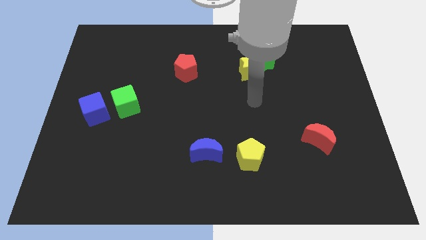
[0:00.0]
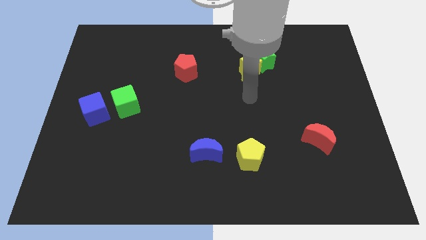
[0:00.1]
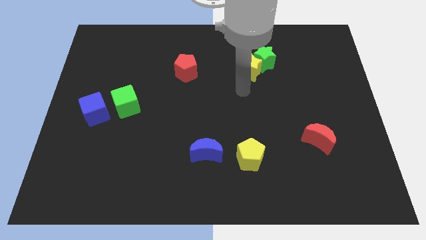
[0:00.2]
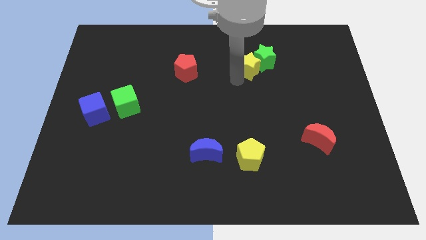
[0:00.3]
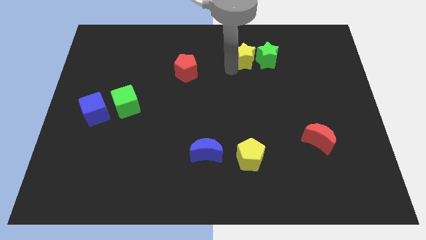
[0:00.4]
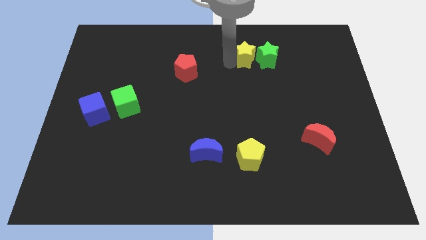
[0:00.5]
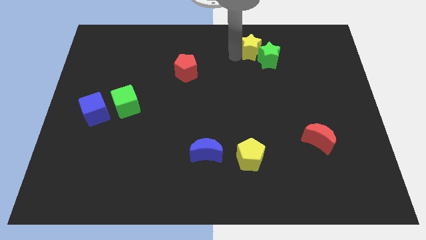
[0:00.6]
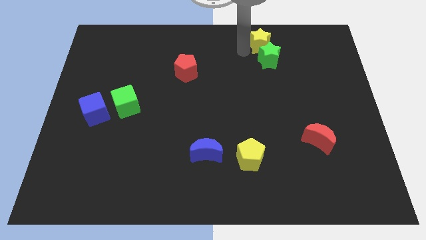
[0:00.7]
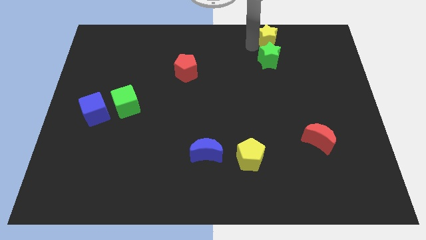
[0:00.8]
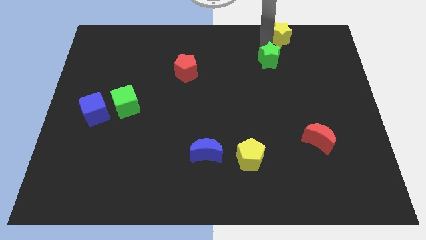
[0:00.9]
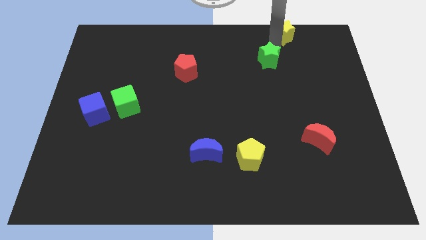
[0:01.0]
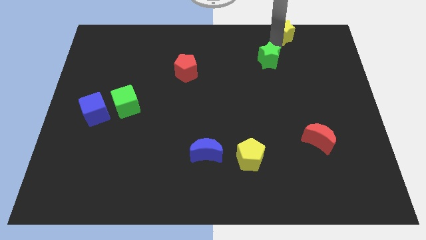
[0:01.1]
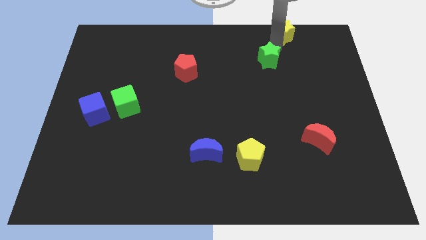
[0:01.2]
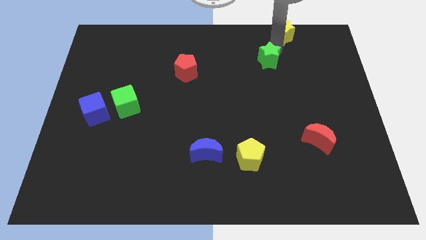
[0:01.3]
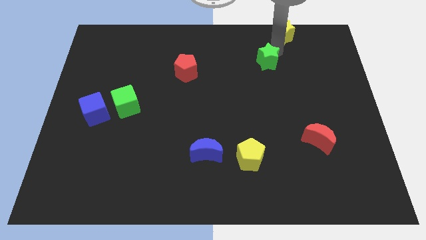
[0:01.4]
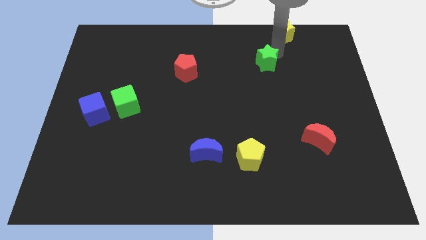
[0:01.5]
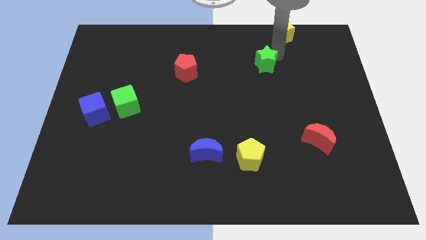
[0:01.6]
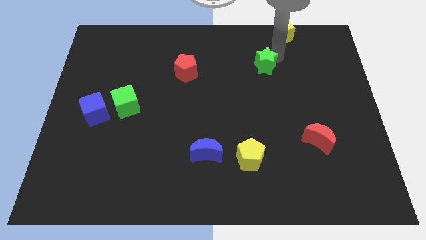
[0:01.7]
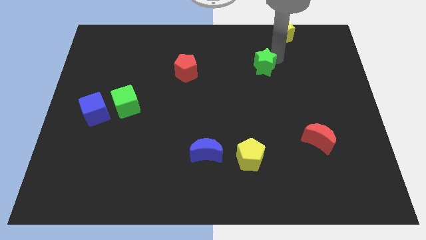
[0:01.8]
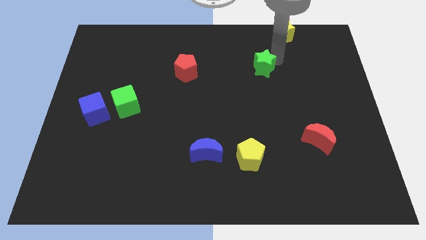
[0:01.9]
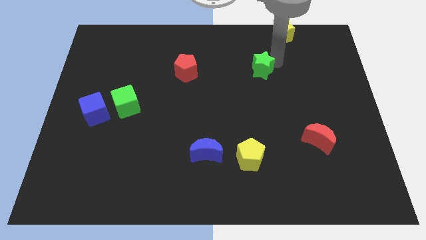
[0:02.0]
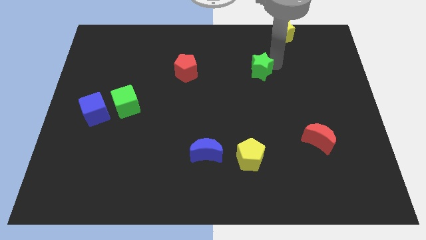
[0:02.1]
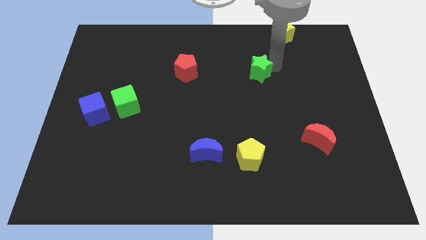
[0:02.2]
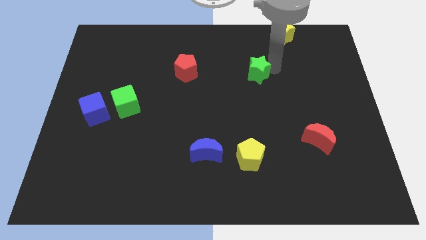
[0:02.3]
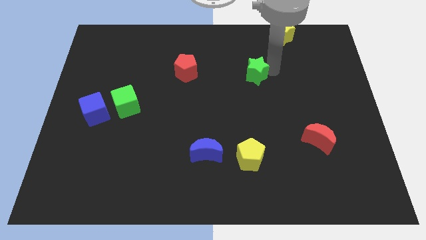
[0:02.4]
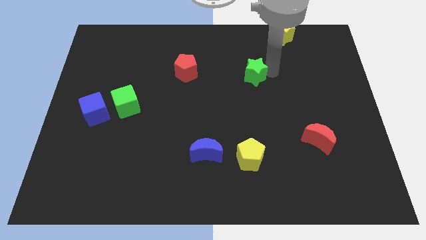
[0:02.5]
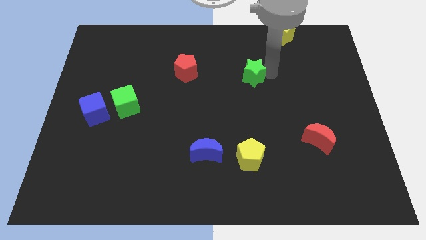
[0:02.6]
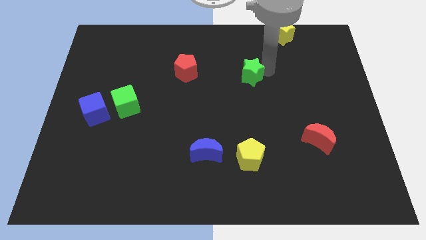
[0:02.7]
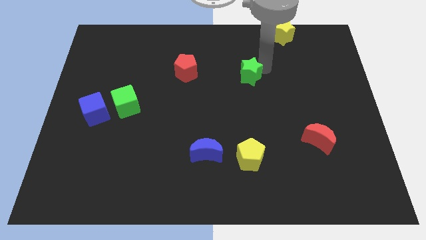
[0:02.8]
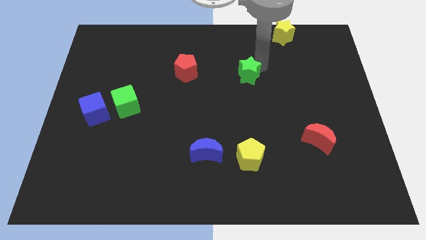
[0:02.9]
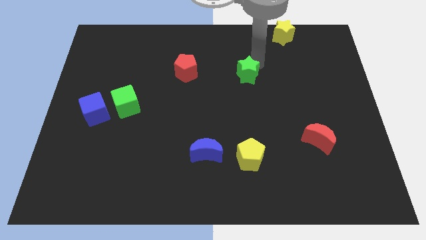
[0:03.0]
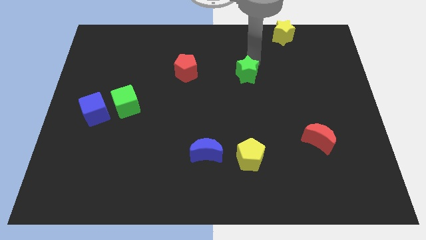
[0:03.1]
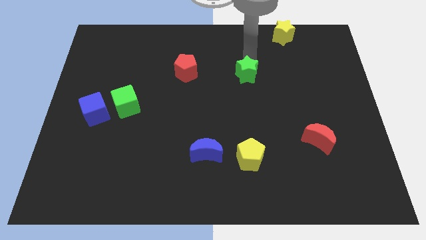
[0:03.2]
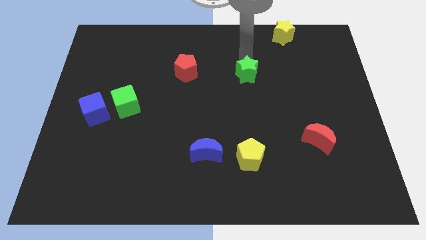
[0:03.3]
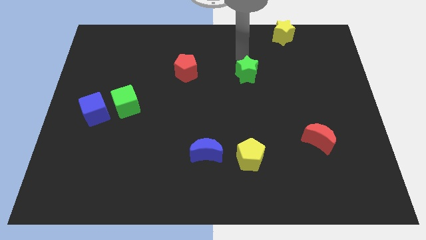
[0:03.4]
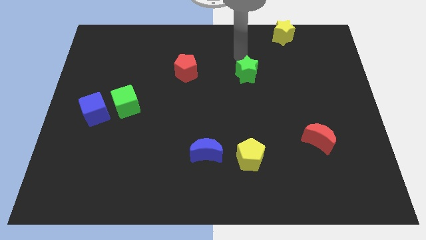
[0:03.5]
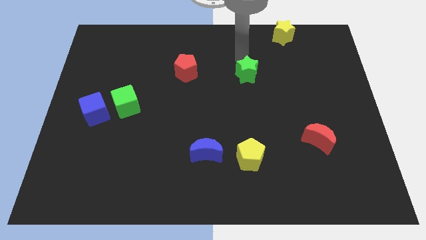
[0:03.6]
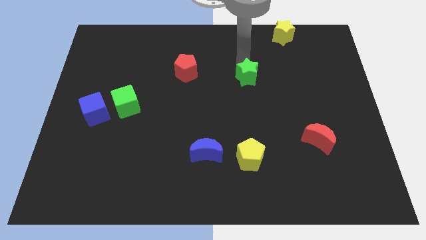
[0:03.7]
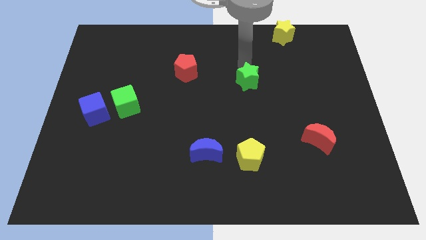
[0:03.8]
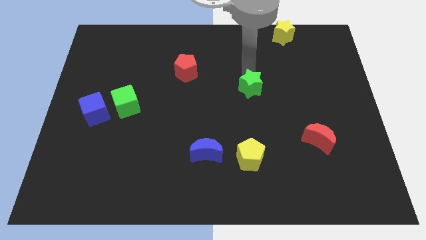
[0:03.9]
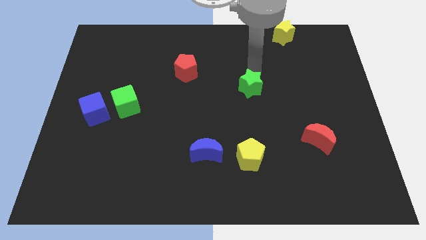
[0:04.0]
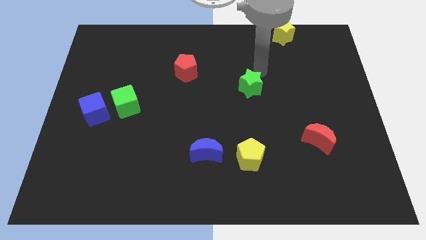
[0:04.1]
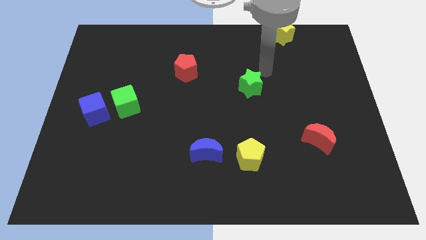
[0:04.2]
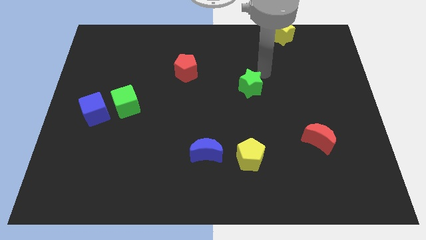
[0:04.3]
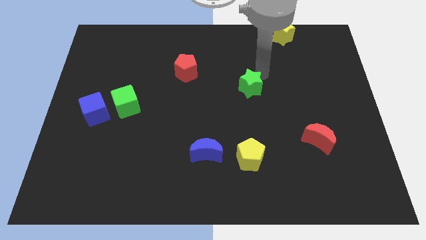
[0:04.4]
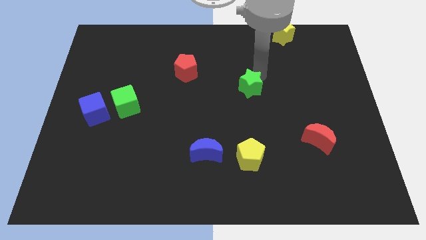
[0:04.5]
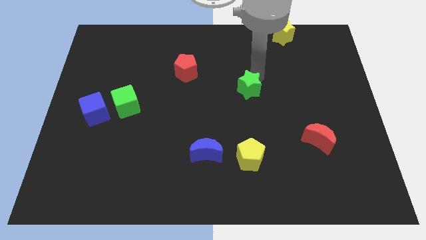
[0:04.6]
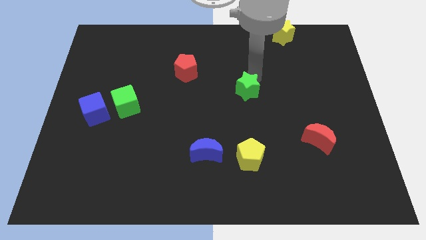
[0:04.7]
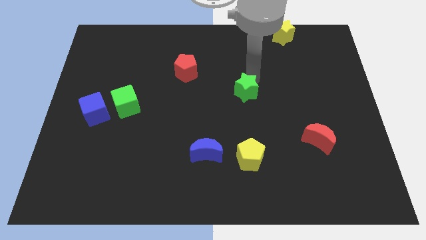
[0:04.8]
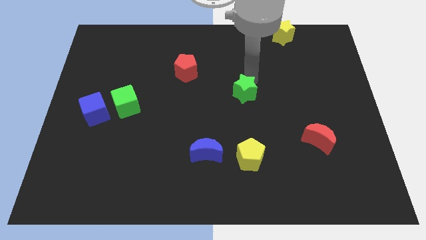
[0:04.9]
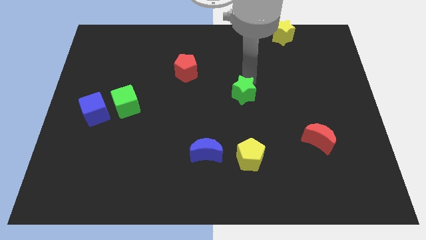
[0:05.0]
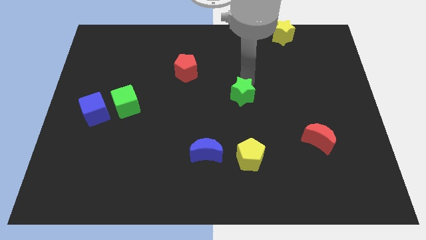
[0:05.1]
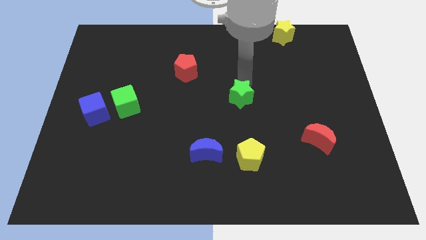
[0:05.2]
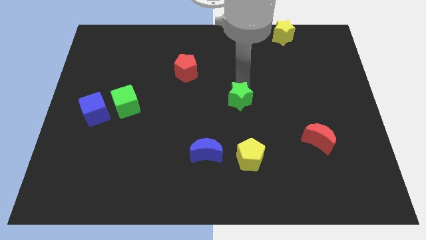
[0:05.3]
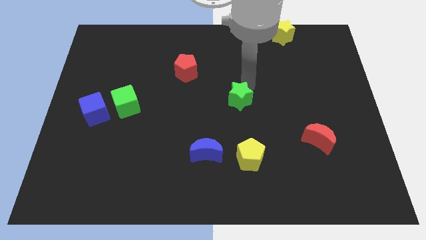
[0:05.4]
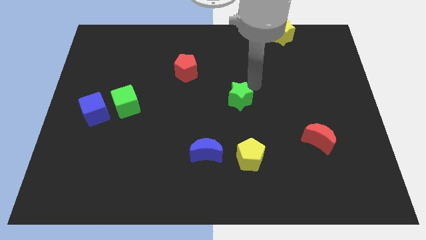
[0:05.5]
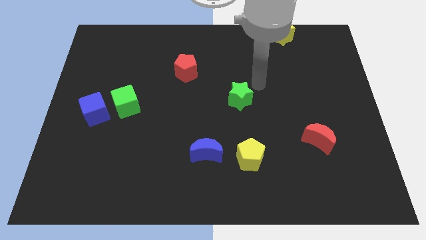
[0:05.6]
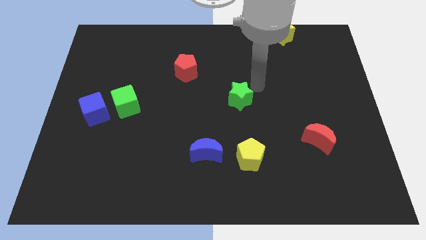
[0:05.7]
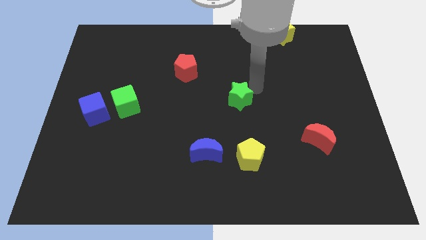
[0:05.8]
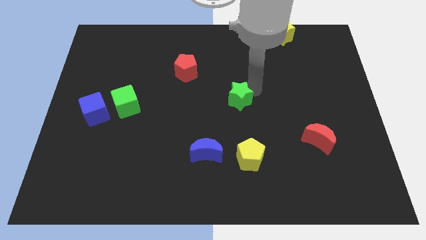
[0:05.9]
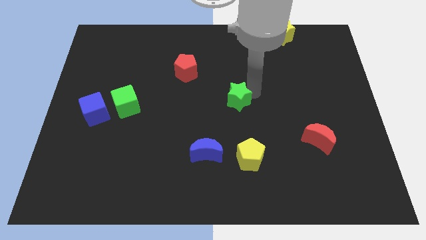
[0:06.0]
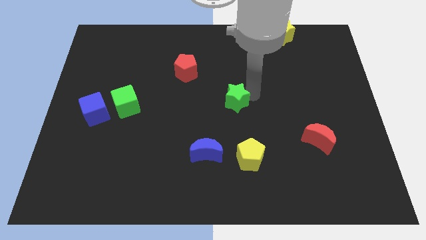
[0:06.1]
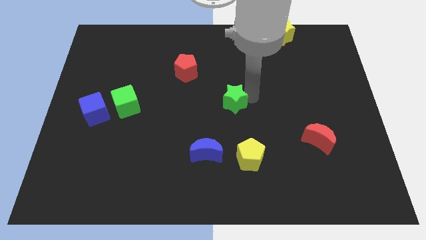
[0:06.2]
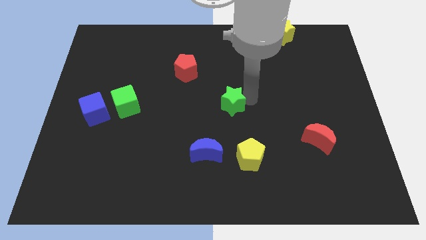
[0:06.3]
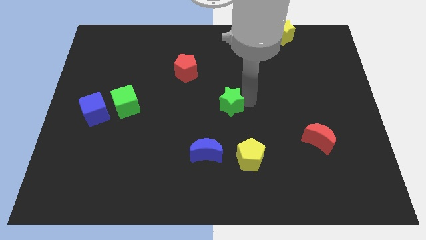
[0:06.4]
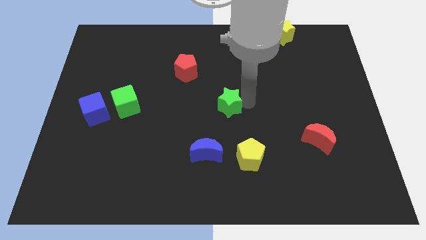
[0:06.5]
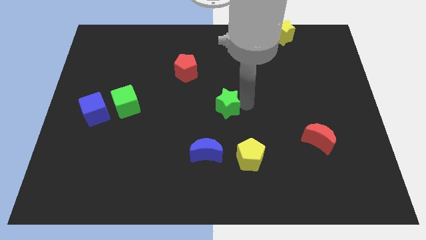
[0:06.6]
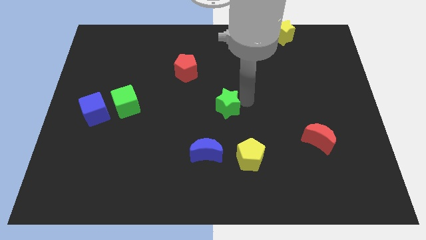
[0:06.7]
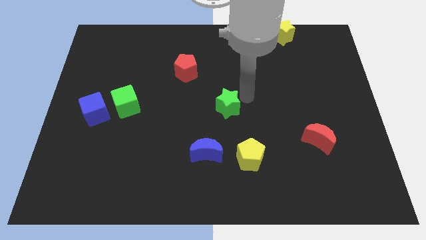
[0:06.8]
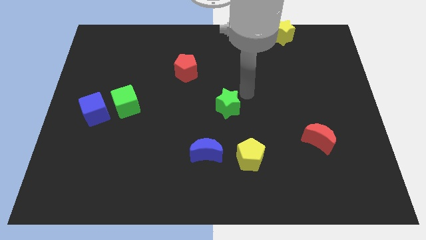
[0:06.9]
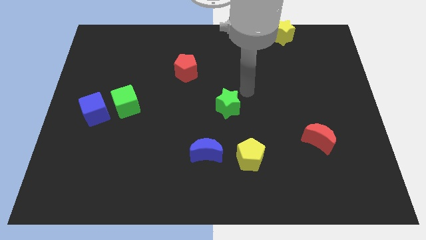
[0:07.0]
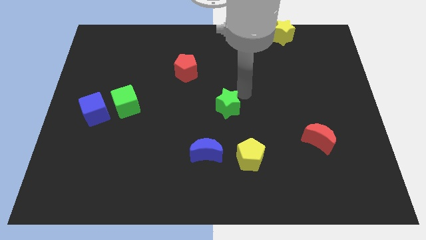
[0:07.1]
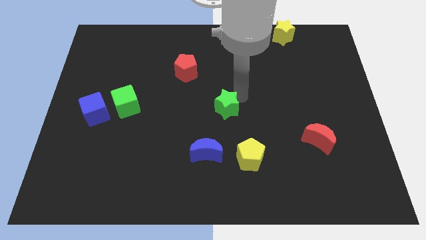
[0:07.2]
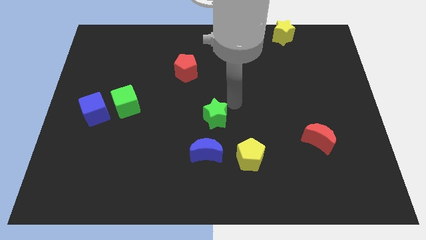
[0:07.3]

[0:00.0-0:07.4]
move the green star down and left diagonally

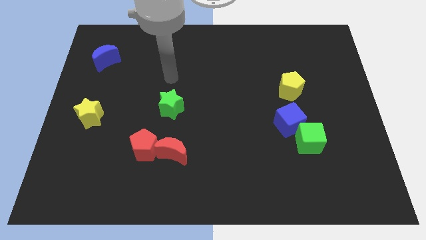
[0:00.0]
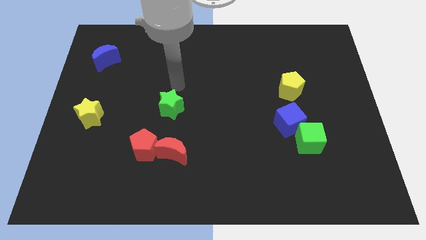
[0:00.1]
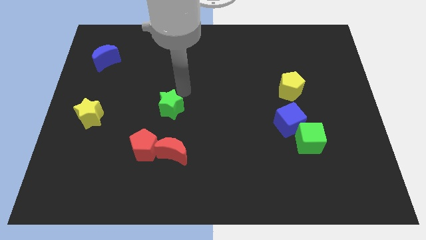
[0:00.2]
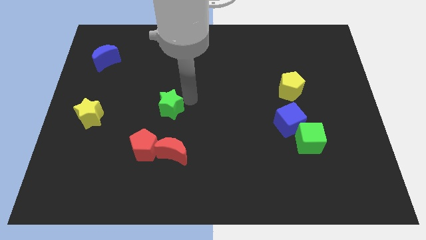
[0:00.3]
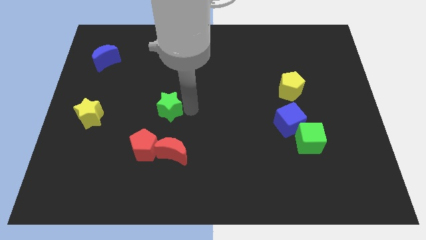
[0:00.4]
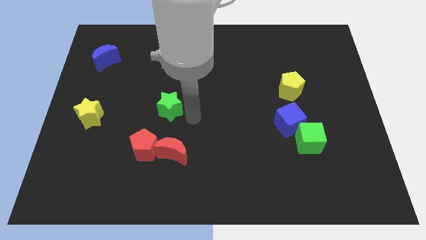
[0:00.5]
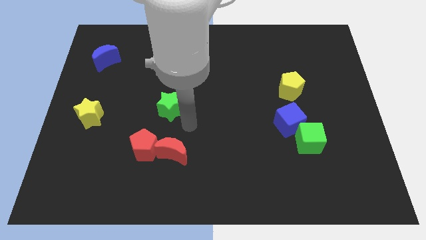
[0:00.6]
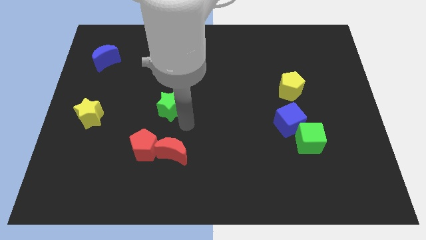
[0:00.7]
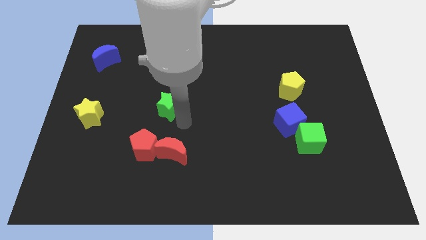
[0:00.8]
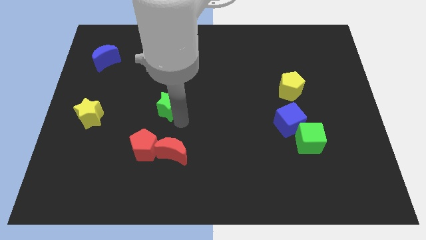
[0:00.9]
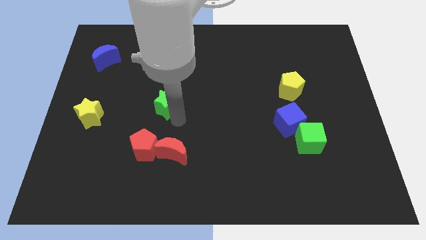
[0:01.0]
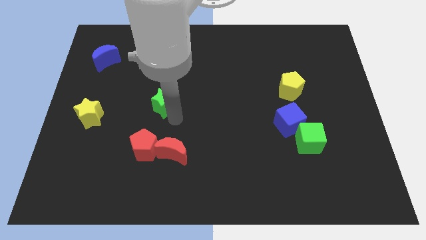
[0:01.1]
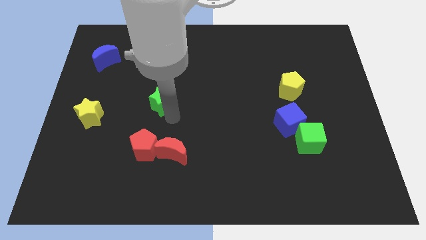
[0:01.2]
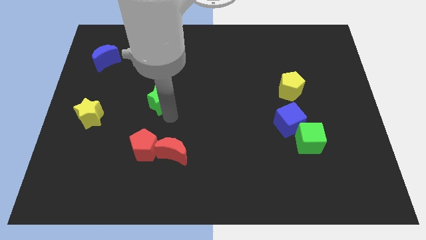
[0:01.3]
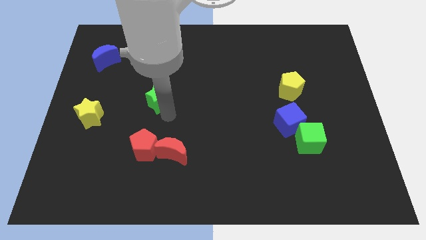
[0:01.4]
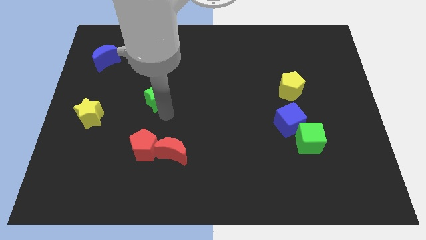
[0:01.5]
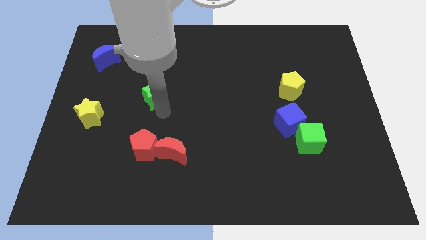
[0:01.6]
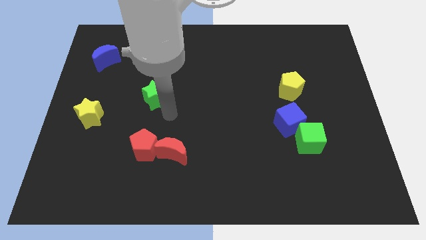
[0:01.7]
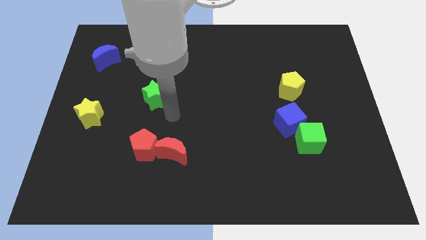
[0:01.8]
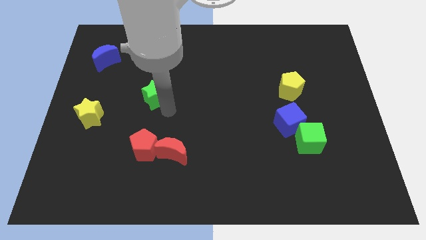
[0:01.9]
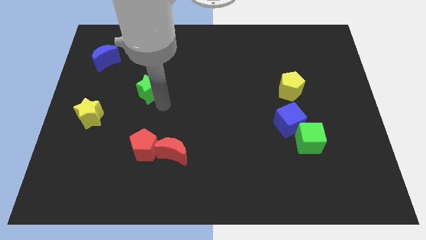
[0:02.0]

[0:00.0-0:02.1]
move the green star a bit upwards and left
